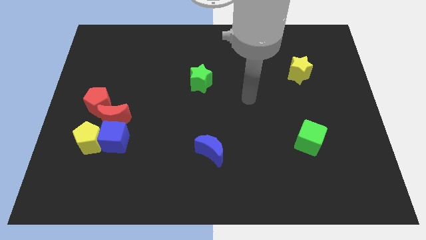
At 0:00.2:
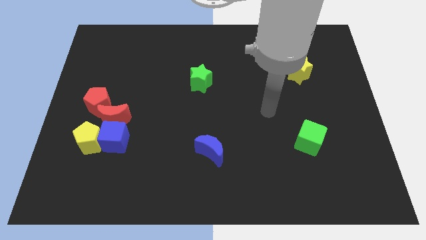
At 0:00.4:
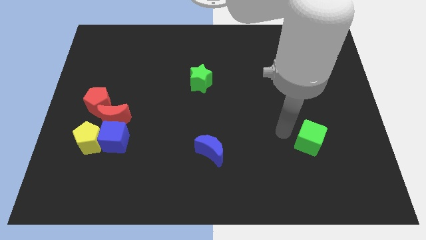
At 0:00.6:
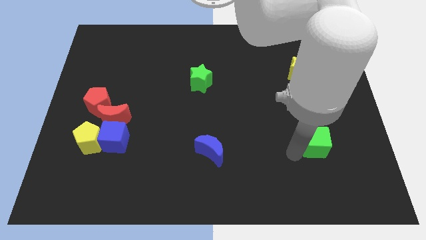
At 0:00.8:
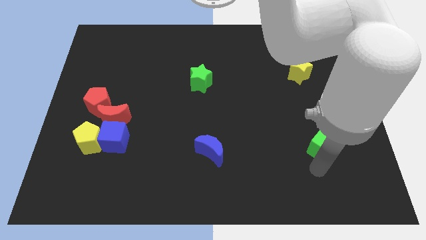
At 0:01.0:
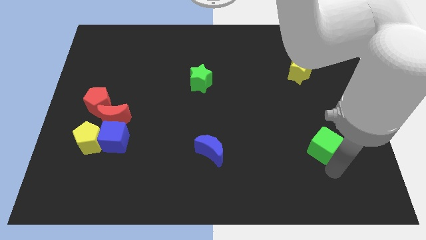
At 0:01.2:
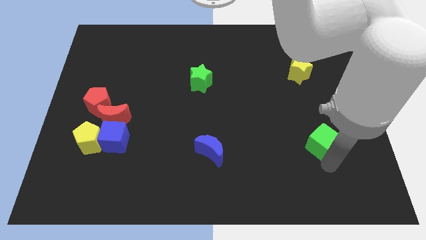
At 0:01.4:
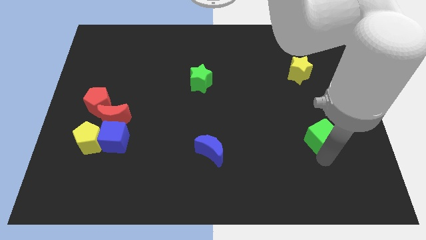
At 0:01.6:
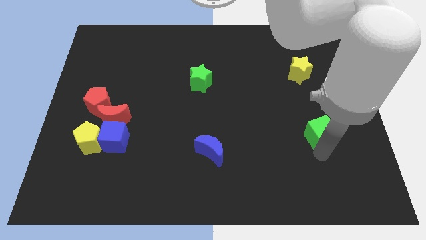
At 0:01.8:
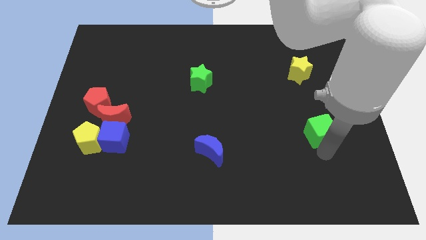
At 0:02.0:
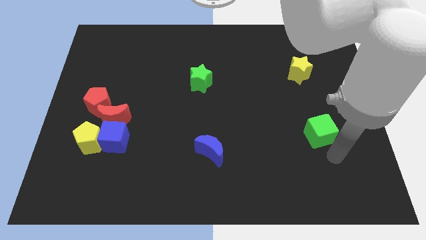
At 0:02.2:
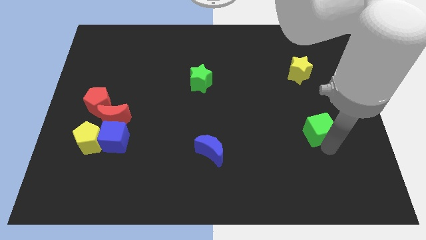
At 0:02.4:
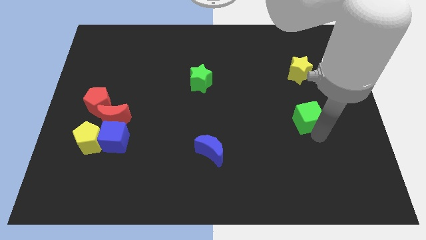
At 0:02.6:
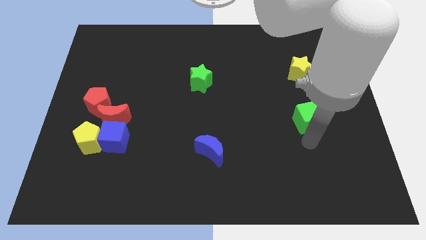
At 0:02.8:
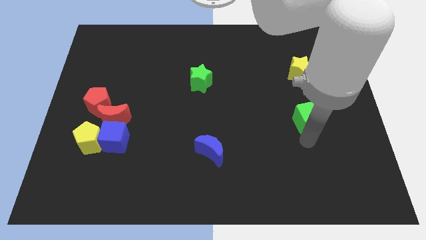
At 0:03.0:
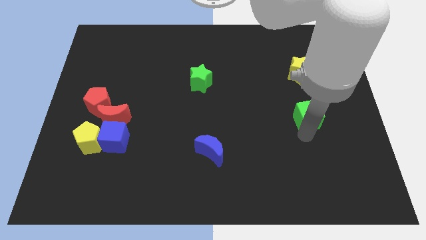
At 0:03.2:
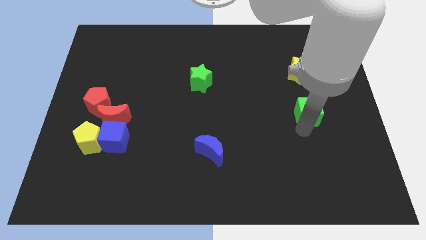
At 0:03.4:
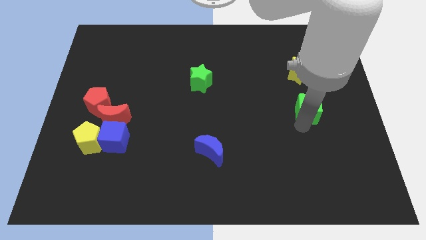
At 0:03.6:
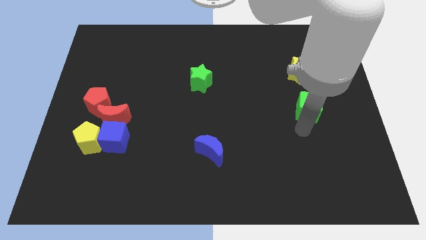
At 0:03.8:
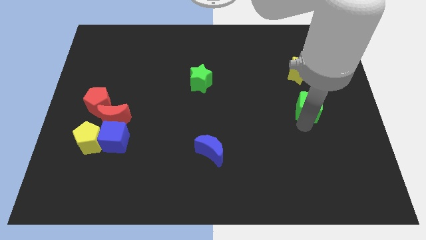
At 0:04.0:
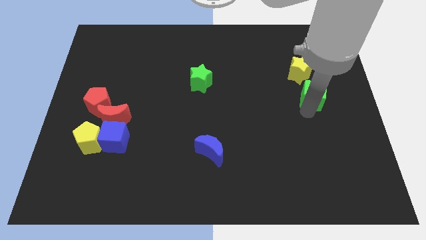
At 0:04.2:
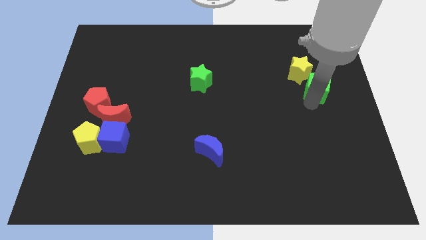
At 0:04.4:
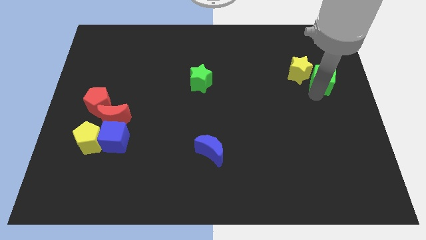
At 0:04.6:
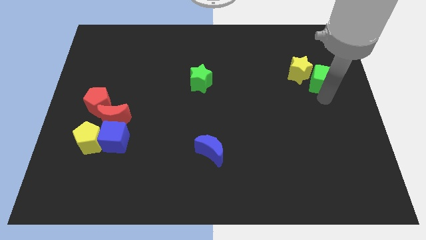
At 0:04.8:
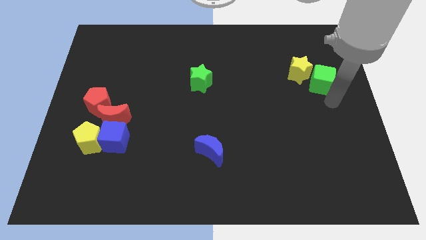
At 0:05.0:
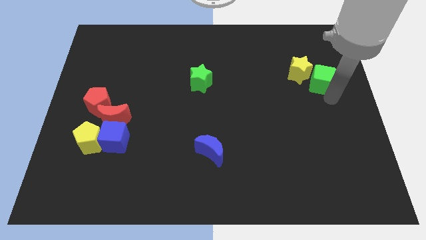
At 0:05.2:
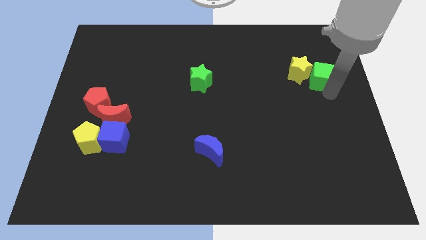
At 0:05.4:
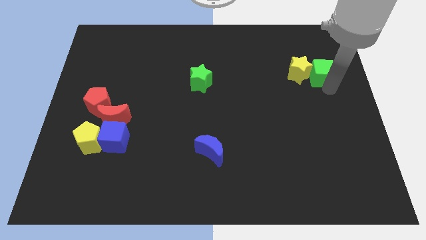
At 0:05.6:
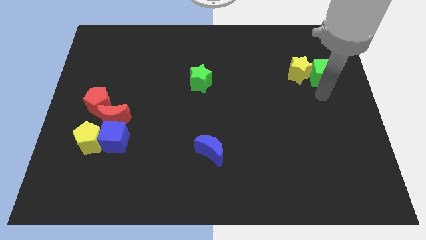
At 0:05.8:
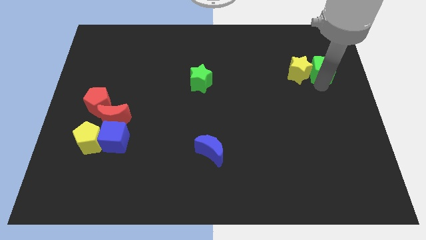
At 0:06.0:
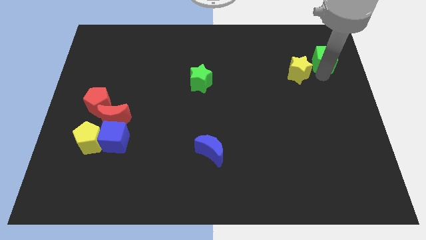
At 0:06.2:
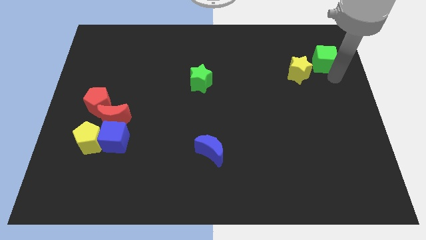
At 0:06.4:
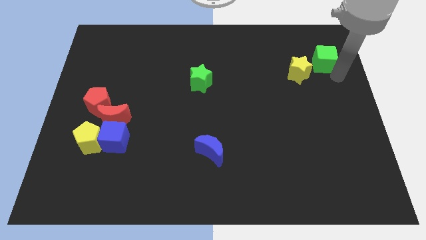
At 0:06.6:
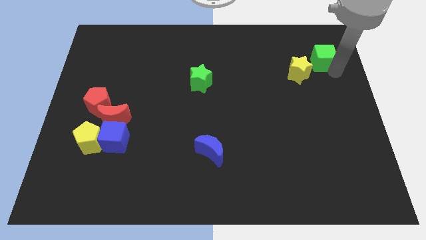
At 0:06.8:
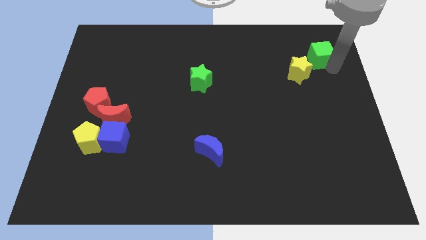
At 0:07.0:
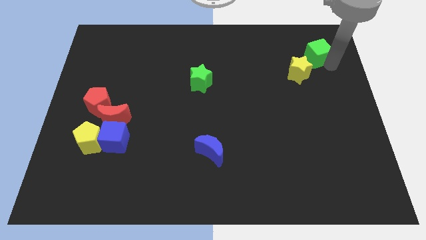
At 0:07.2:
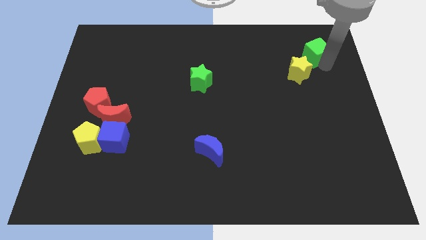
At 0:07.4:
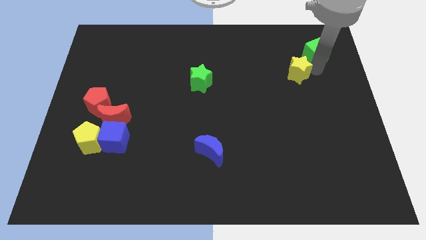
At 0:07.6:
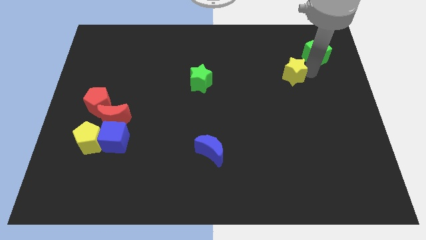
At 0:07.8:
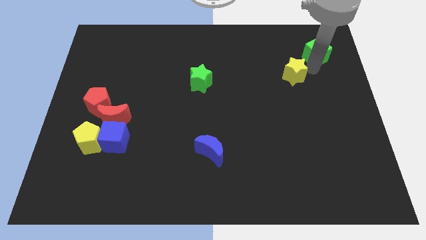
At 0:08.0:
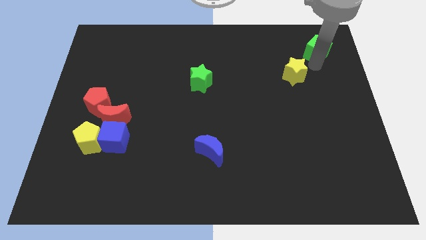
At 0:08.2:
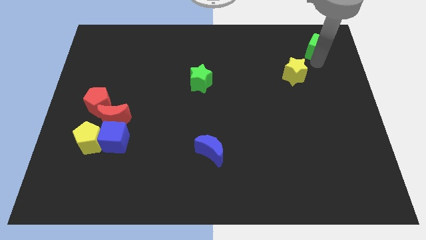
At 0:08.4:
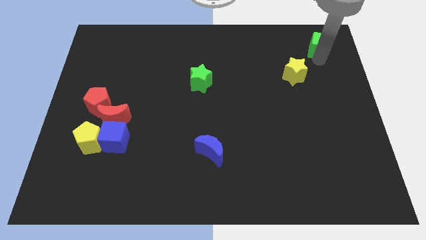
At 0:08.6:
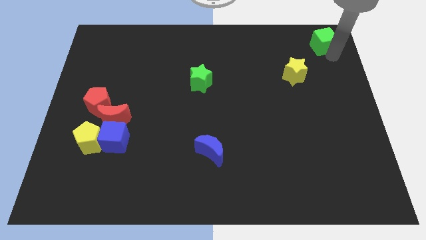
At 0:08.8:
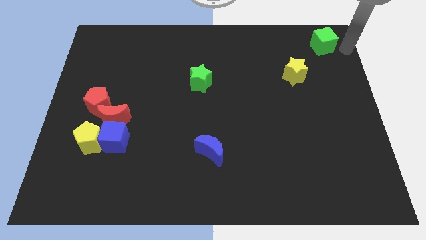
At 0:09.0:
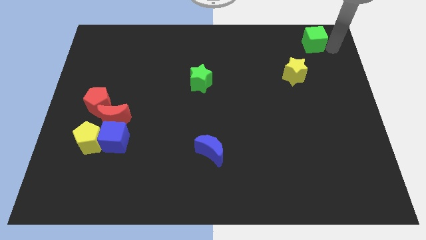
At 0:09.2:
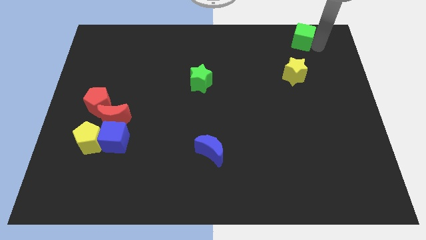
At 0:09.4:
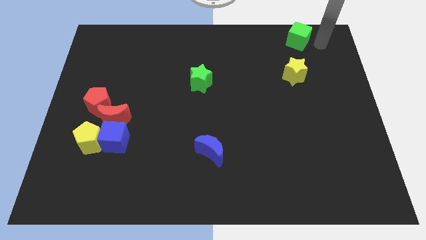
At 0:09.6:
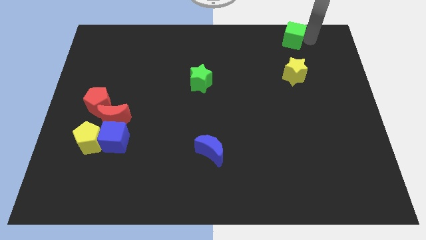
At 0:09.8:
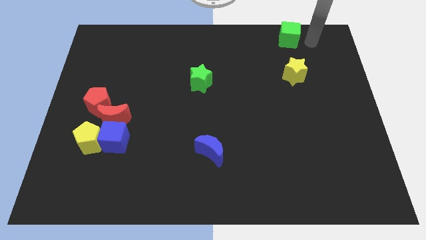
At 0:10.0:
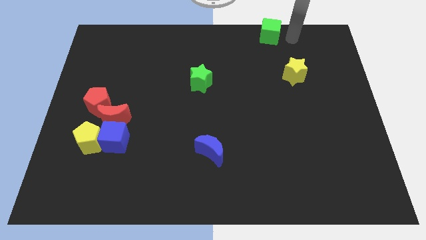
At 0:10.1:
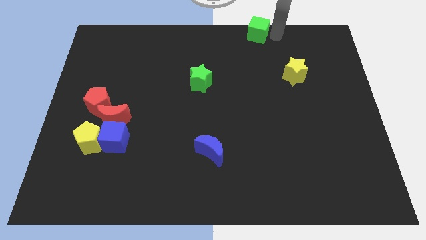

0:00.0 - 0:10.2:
put the green cube to the top

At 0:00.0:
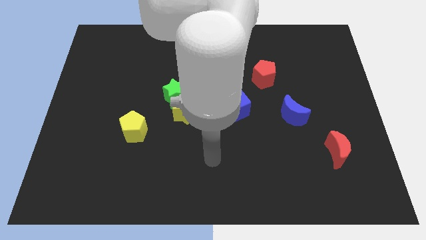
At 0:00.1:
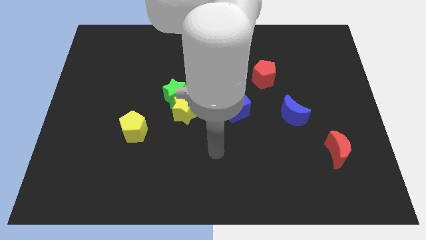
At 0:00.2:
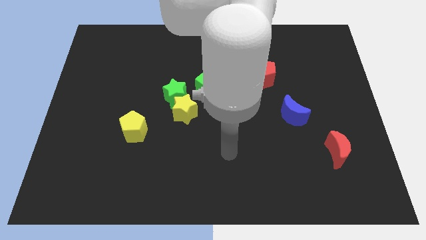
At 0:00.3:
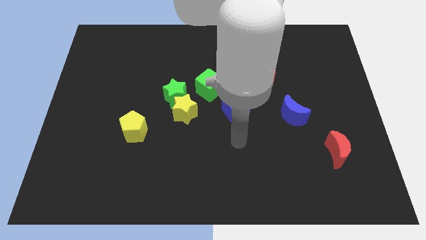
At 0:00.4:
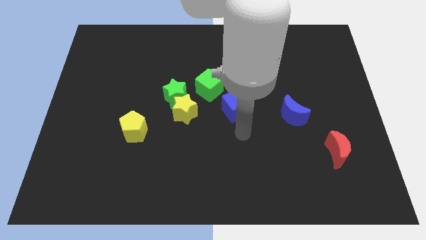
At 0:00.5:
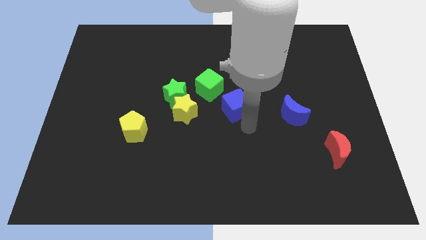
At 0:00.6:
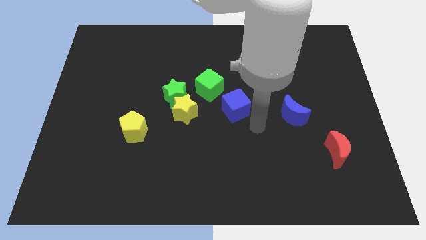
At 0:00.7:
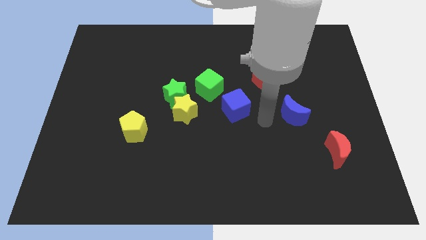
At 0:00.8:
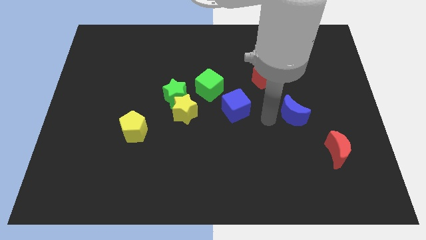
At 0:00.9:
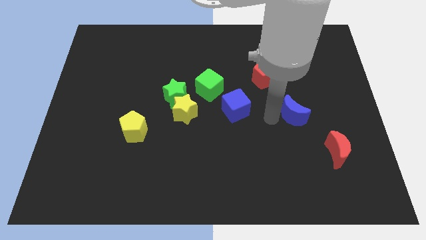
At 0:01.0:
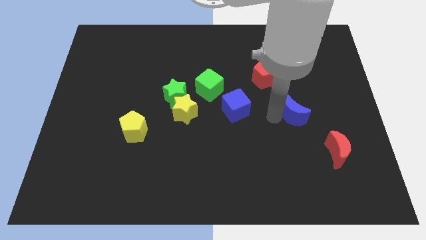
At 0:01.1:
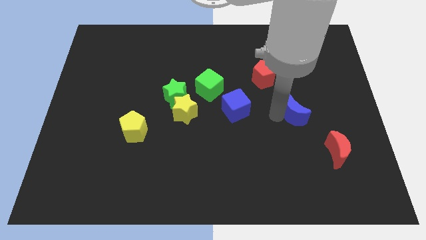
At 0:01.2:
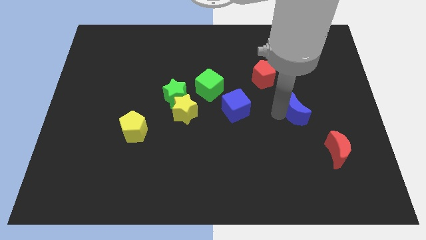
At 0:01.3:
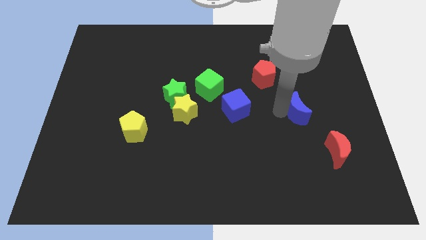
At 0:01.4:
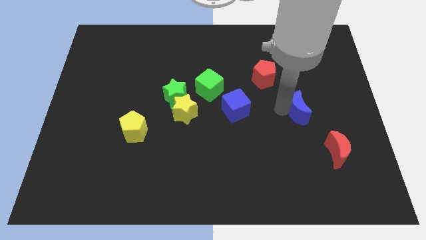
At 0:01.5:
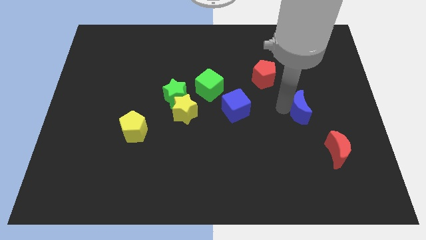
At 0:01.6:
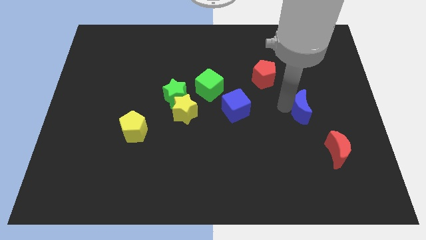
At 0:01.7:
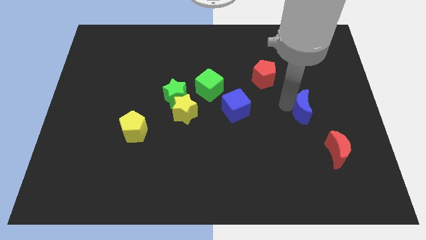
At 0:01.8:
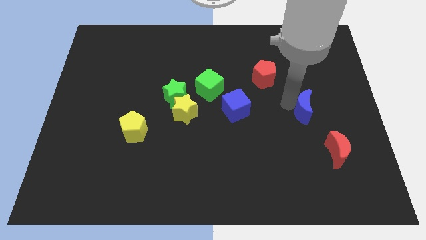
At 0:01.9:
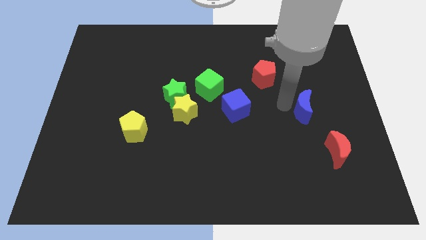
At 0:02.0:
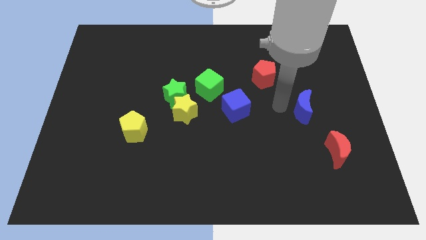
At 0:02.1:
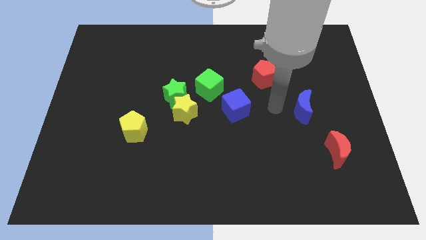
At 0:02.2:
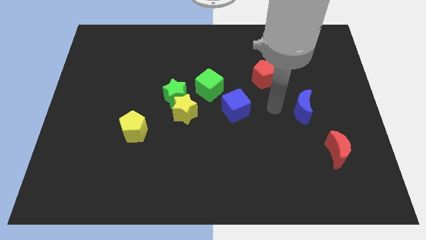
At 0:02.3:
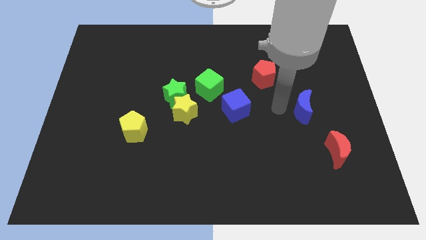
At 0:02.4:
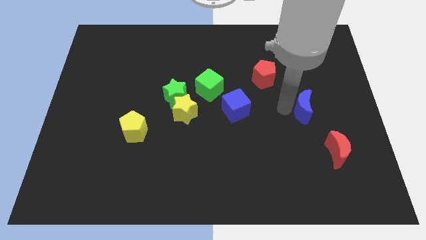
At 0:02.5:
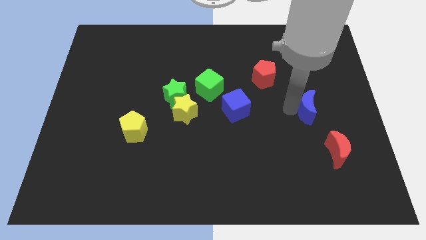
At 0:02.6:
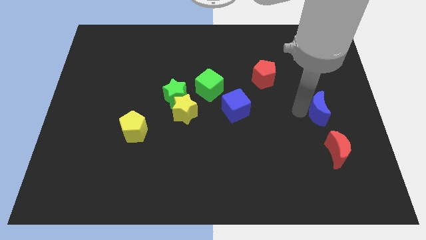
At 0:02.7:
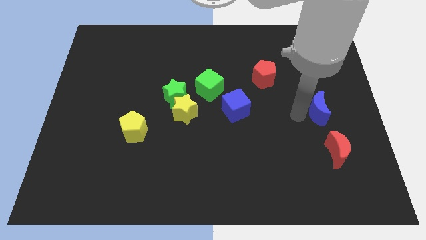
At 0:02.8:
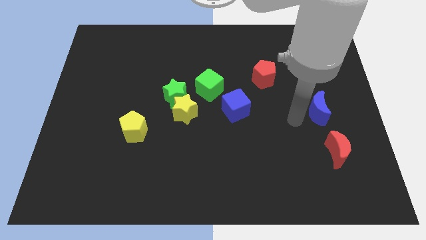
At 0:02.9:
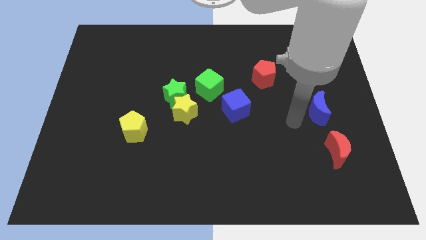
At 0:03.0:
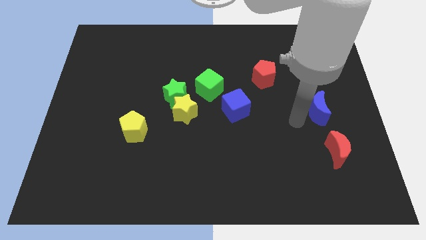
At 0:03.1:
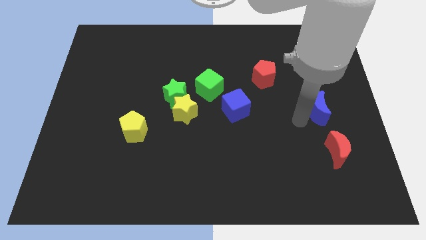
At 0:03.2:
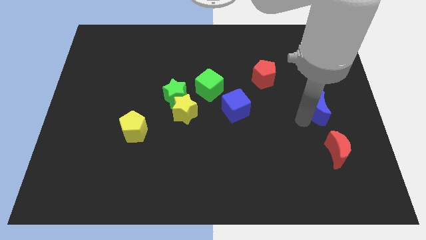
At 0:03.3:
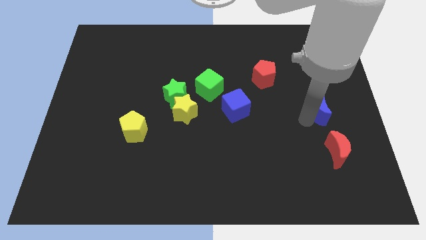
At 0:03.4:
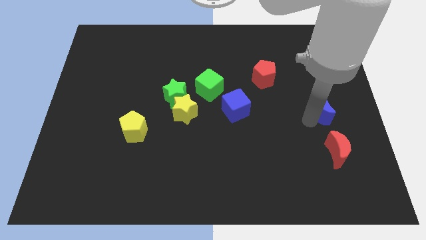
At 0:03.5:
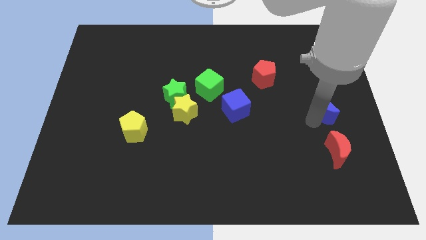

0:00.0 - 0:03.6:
move the blue moon to the center right
